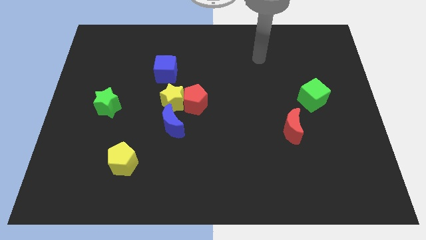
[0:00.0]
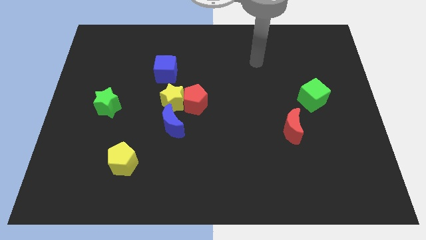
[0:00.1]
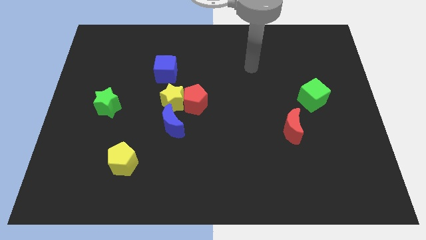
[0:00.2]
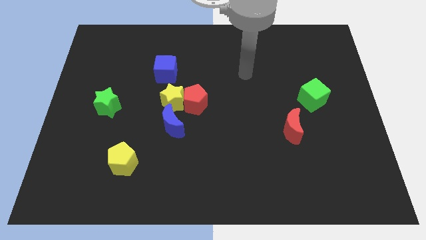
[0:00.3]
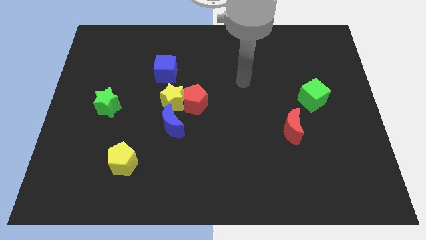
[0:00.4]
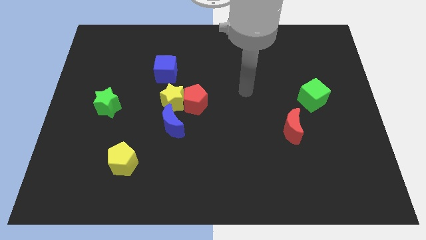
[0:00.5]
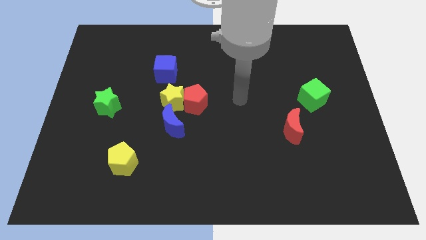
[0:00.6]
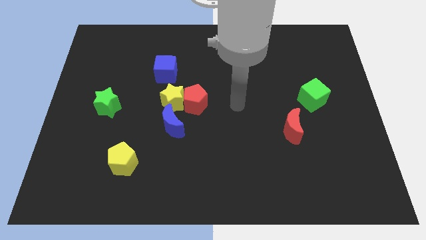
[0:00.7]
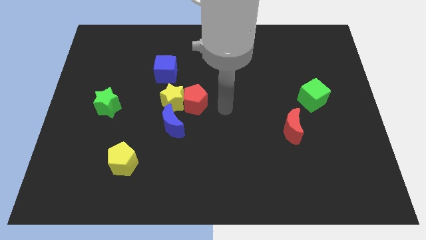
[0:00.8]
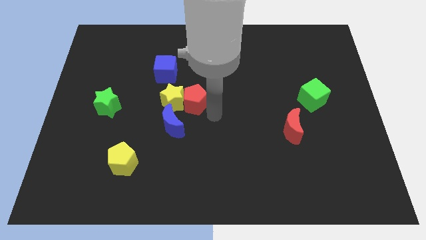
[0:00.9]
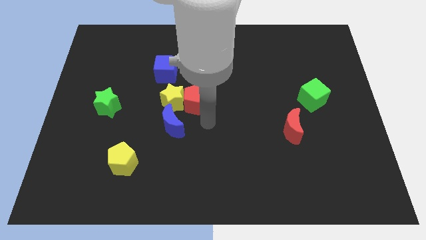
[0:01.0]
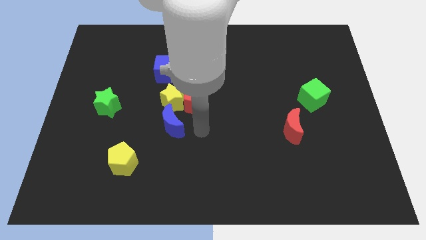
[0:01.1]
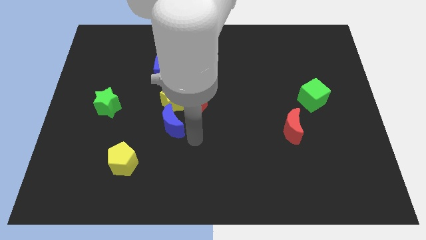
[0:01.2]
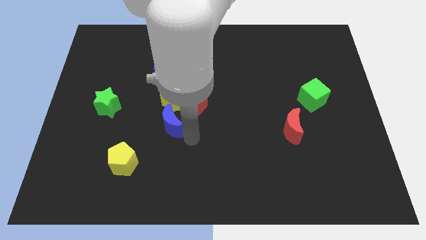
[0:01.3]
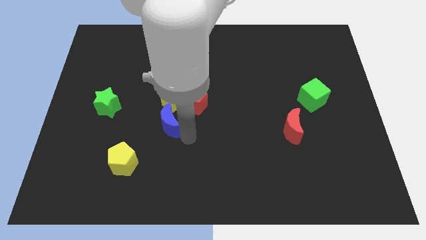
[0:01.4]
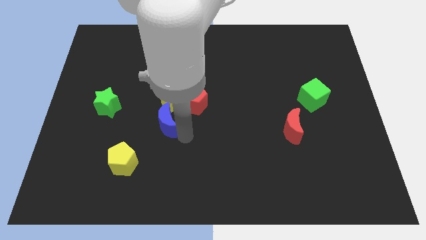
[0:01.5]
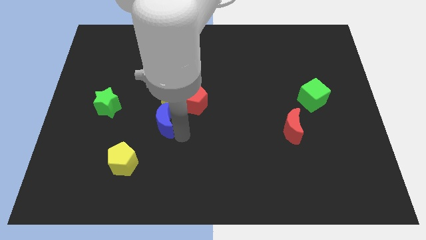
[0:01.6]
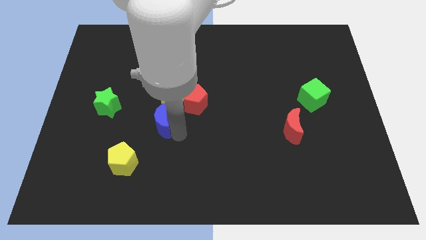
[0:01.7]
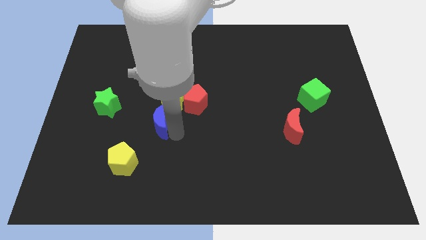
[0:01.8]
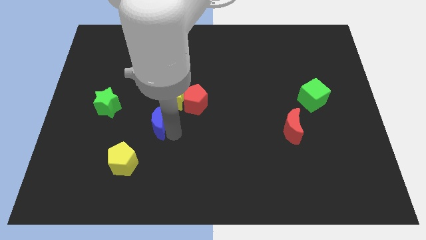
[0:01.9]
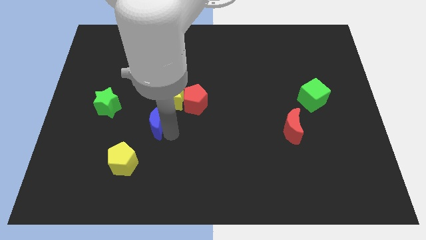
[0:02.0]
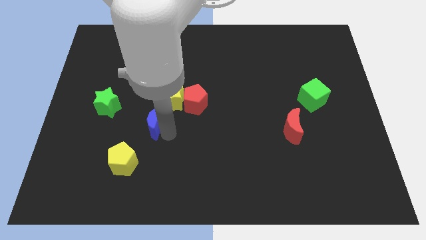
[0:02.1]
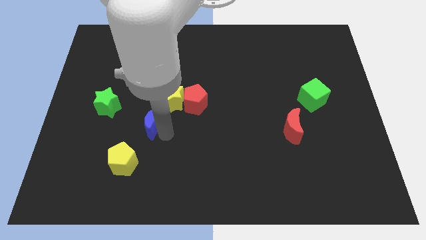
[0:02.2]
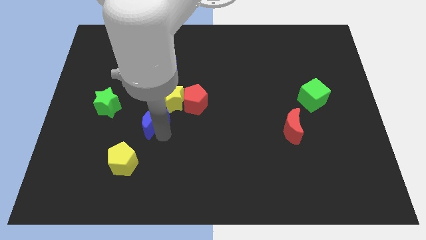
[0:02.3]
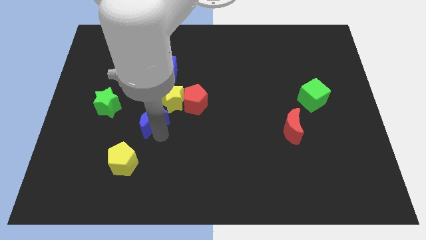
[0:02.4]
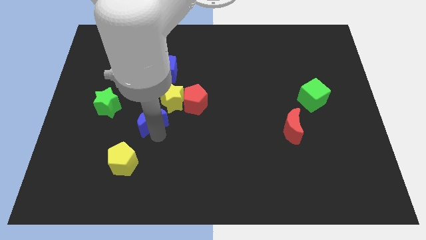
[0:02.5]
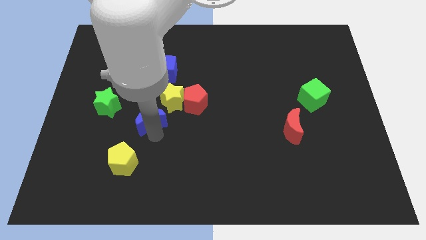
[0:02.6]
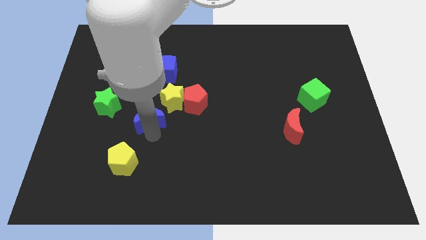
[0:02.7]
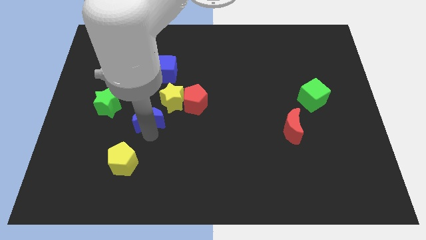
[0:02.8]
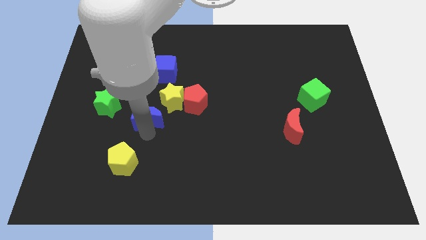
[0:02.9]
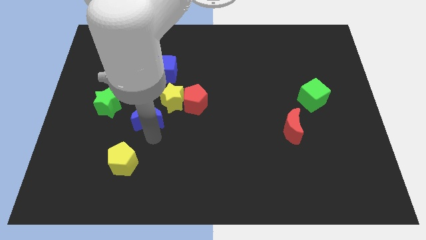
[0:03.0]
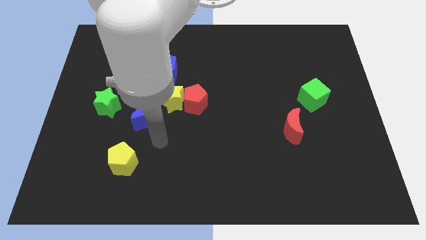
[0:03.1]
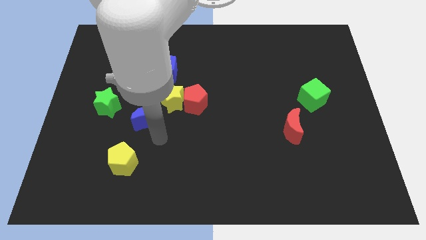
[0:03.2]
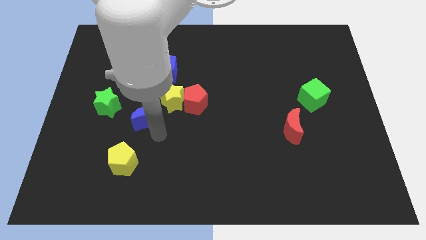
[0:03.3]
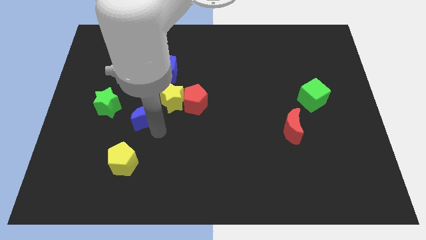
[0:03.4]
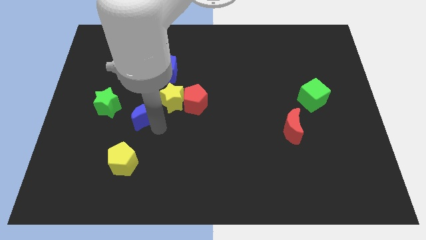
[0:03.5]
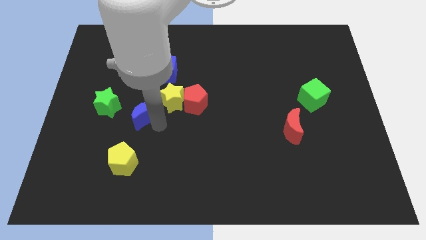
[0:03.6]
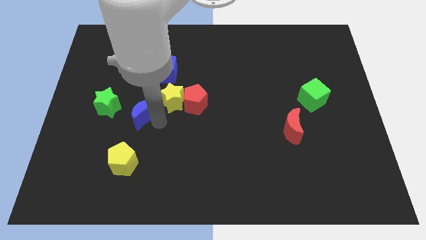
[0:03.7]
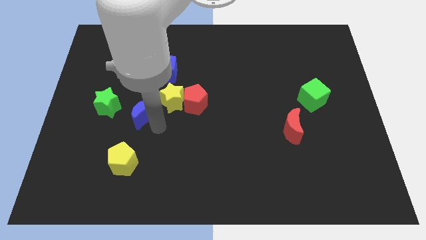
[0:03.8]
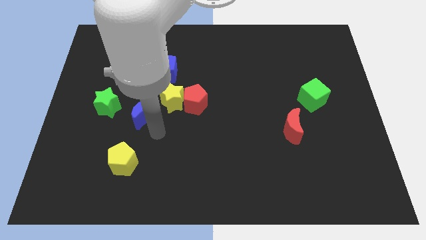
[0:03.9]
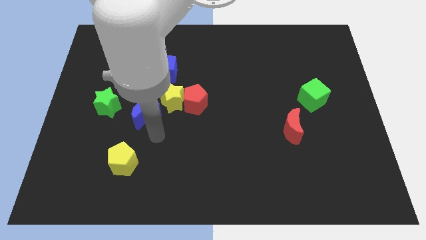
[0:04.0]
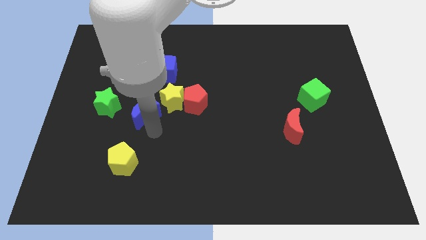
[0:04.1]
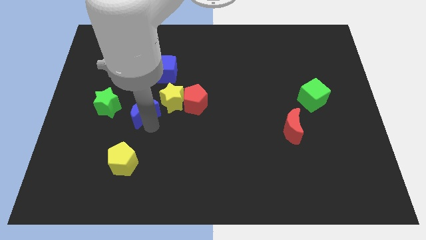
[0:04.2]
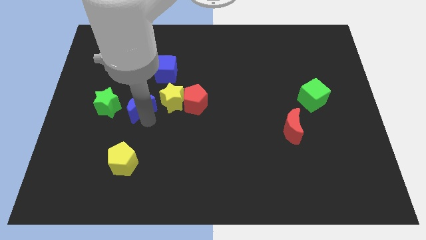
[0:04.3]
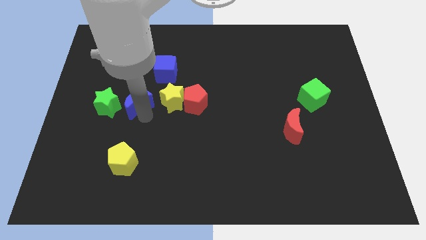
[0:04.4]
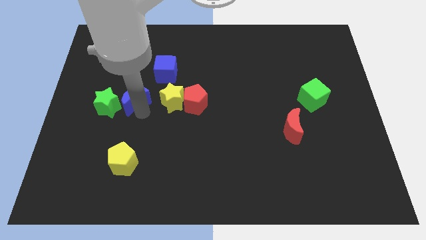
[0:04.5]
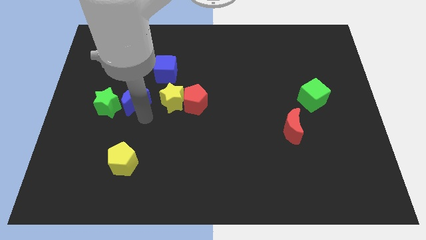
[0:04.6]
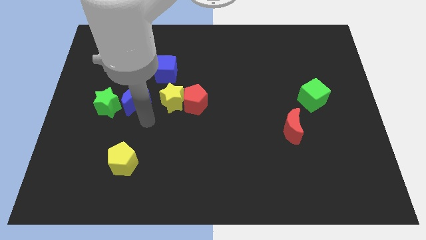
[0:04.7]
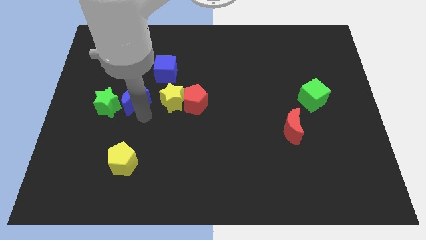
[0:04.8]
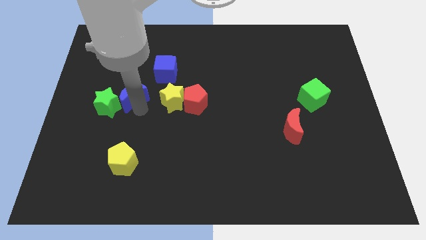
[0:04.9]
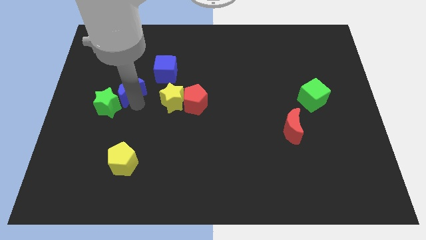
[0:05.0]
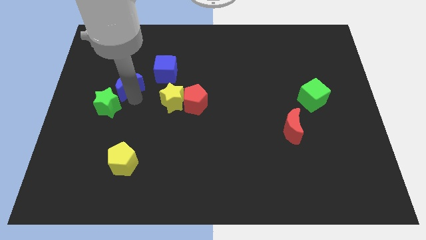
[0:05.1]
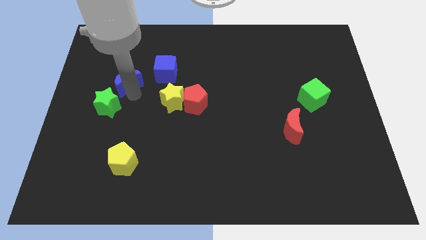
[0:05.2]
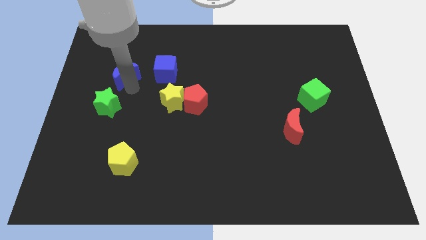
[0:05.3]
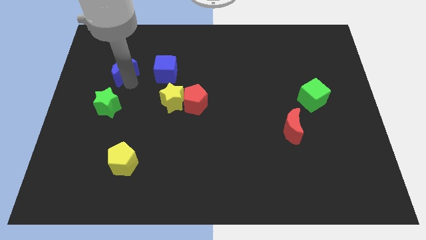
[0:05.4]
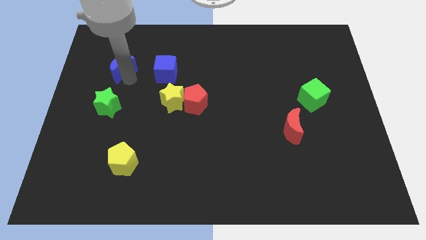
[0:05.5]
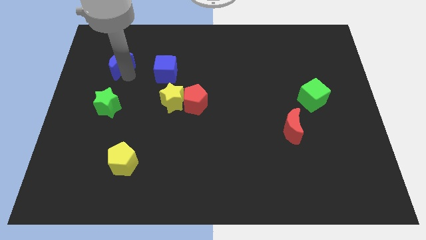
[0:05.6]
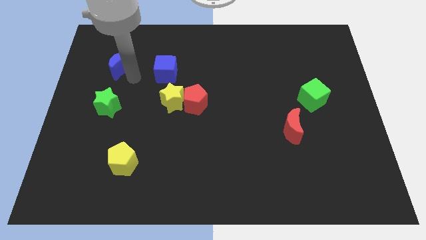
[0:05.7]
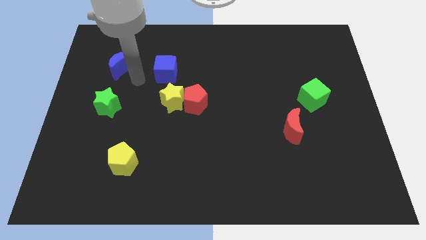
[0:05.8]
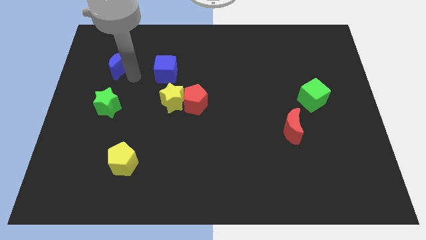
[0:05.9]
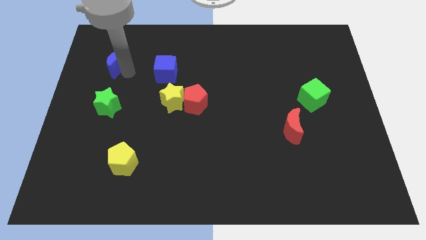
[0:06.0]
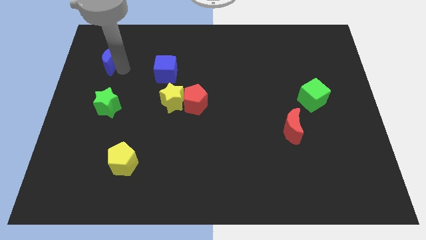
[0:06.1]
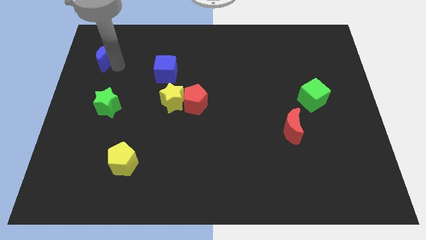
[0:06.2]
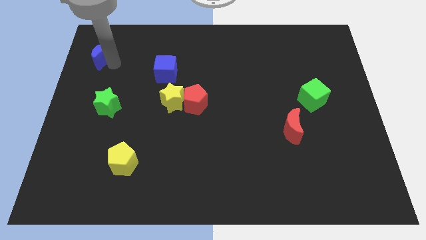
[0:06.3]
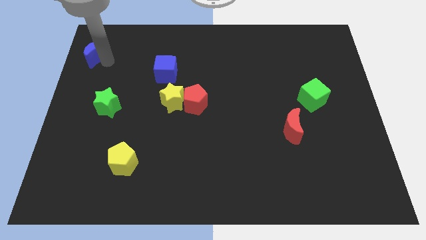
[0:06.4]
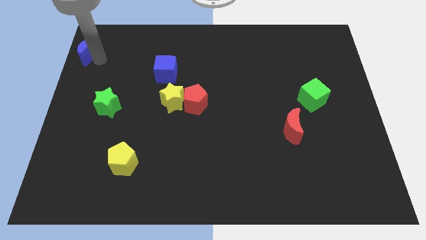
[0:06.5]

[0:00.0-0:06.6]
put the blue moon to the top left of the board

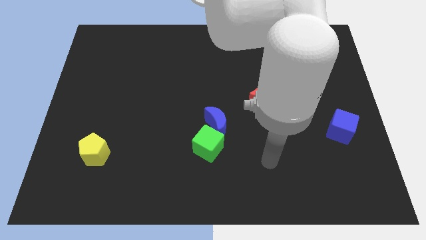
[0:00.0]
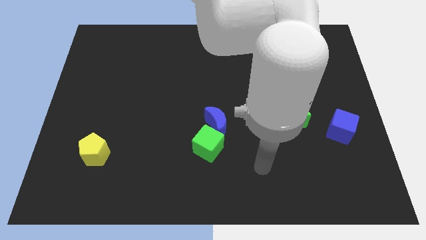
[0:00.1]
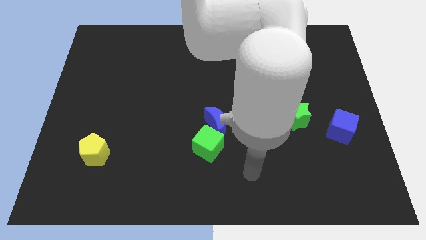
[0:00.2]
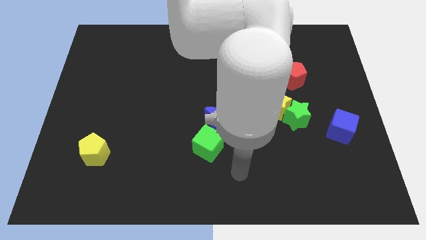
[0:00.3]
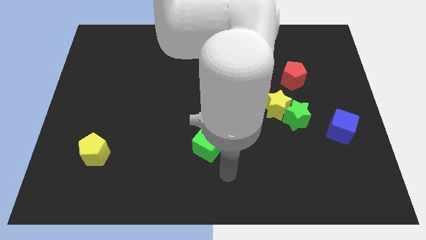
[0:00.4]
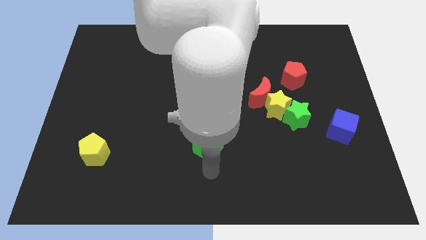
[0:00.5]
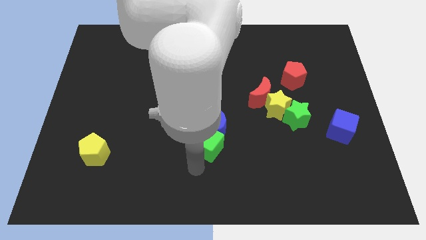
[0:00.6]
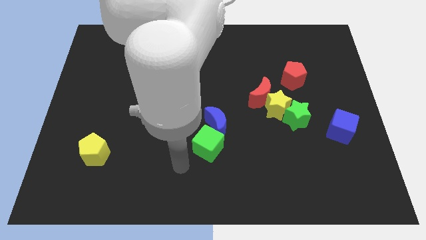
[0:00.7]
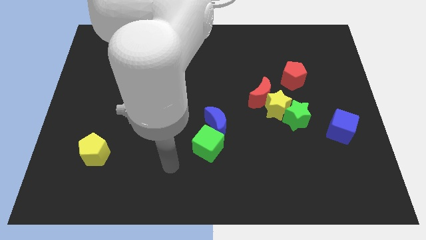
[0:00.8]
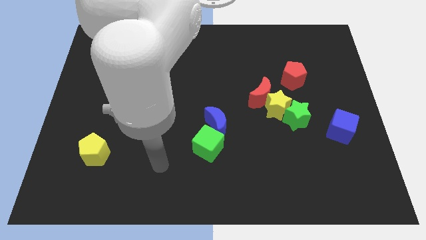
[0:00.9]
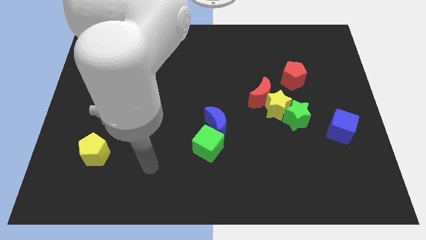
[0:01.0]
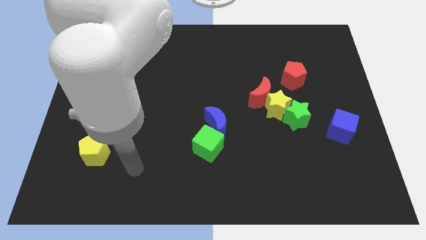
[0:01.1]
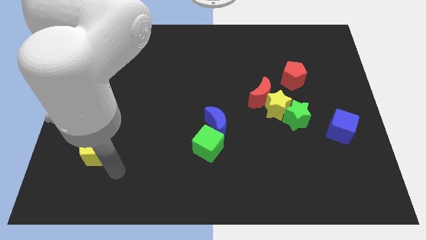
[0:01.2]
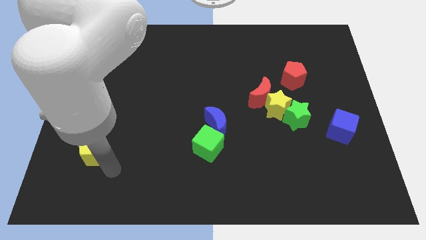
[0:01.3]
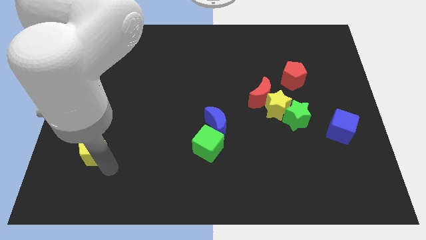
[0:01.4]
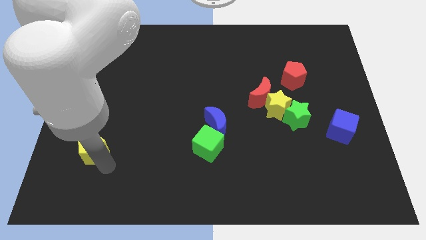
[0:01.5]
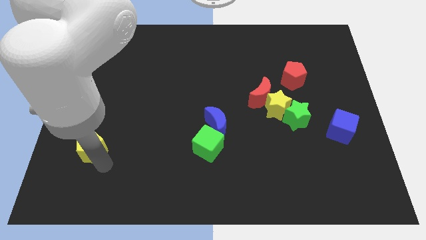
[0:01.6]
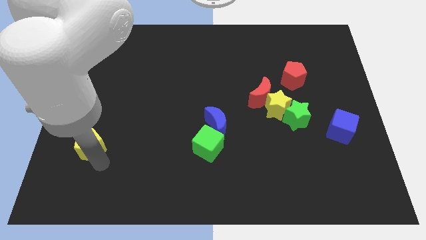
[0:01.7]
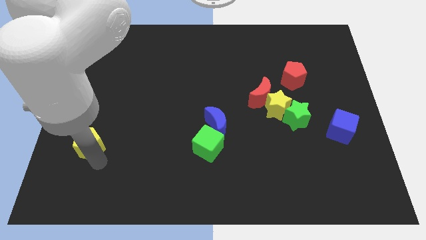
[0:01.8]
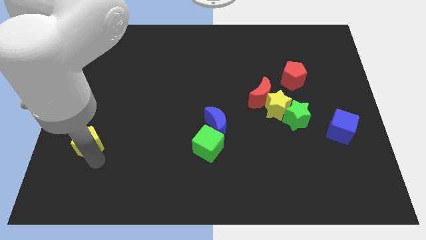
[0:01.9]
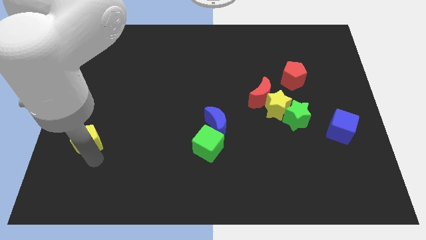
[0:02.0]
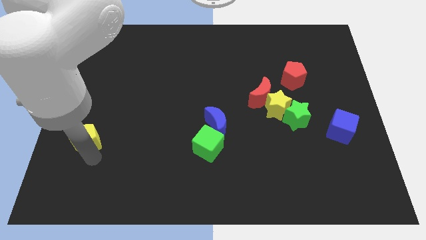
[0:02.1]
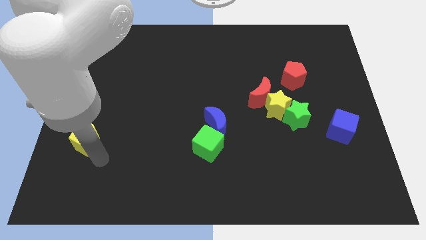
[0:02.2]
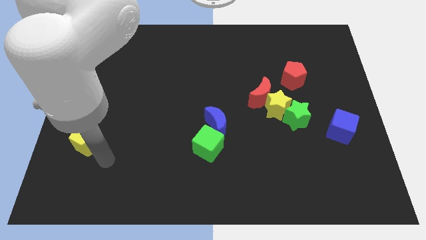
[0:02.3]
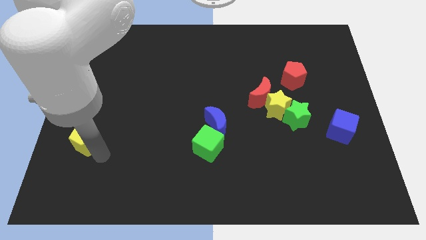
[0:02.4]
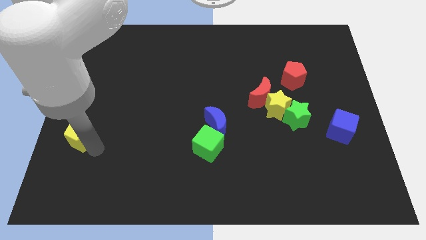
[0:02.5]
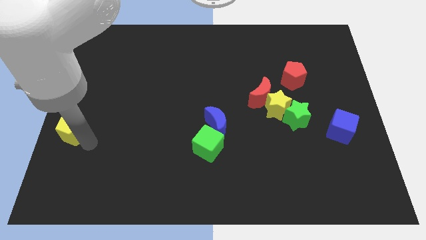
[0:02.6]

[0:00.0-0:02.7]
move the yellow pentagon to the left side
